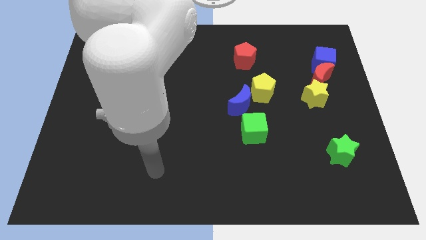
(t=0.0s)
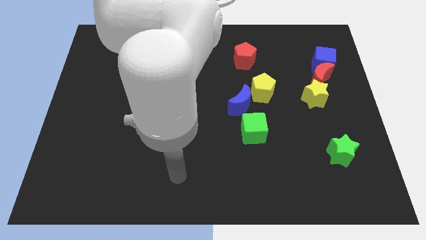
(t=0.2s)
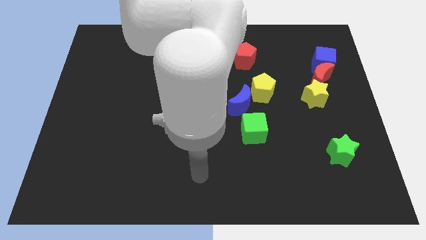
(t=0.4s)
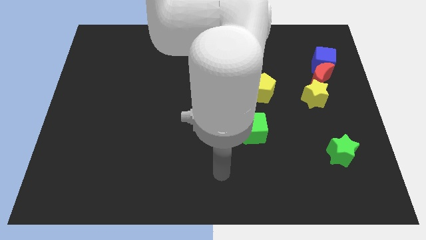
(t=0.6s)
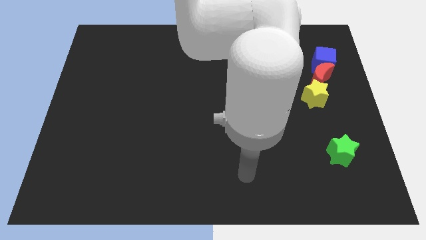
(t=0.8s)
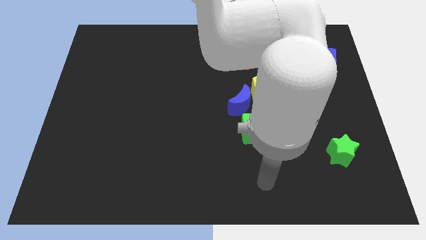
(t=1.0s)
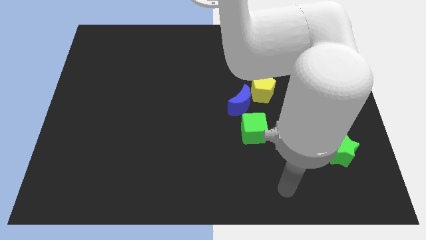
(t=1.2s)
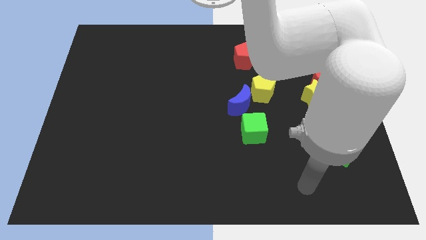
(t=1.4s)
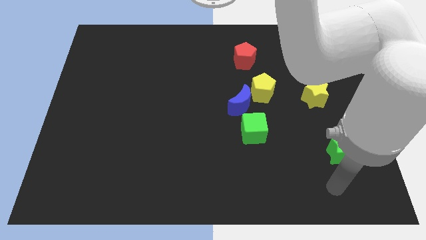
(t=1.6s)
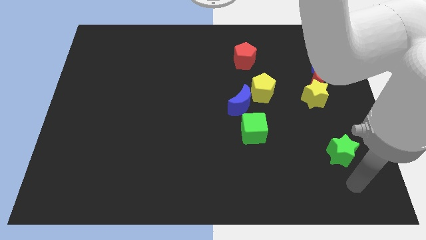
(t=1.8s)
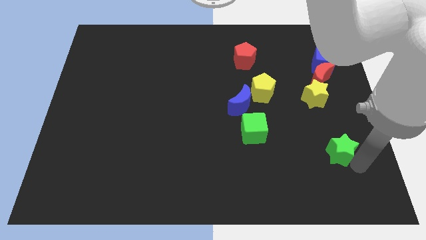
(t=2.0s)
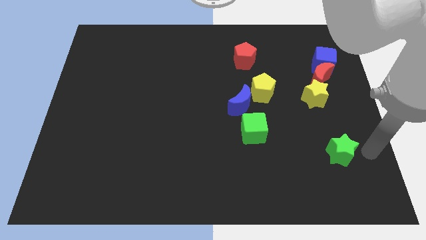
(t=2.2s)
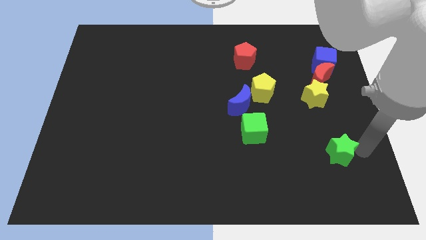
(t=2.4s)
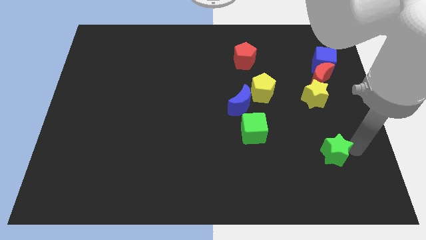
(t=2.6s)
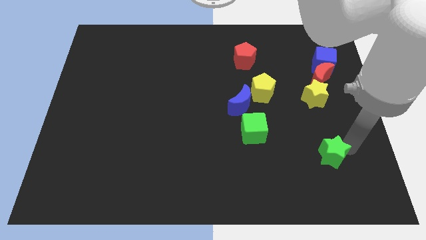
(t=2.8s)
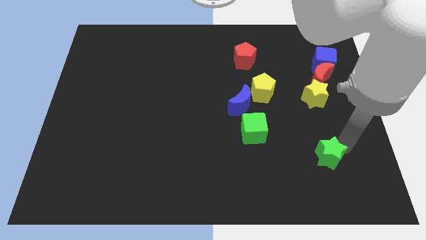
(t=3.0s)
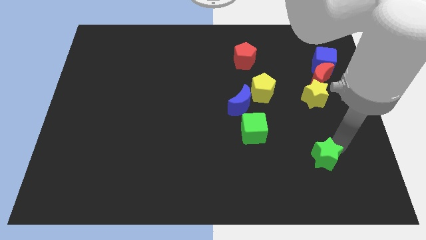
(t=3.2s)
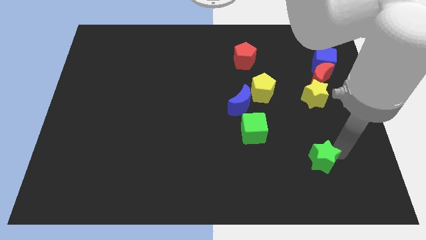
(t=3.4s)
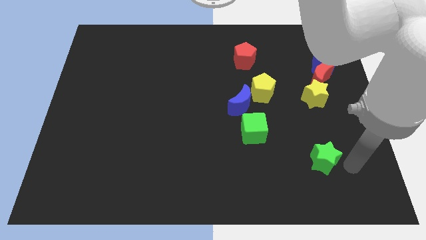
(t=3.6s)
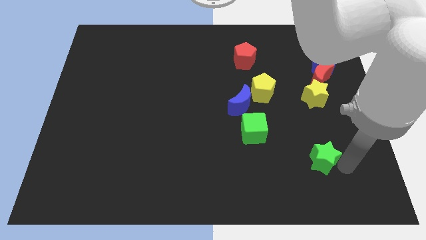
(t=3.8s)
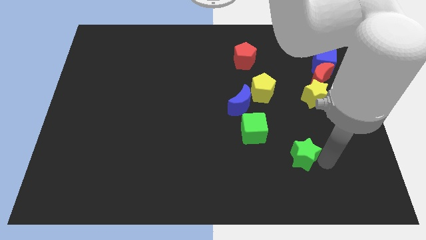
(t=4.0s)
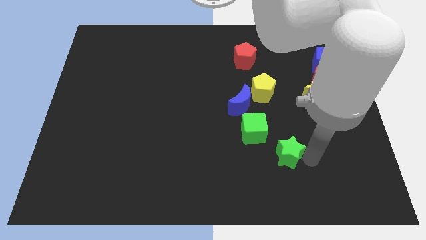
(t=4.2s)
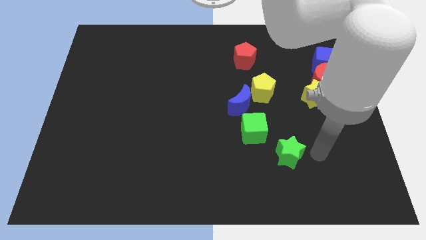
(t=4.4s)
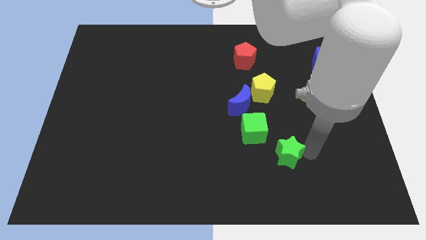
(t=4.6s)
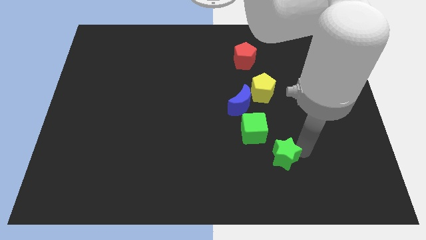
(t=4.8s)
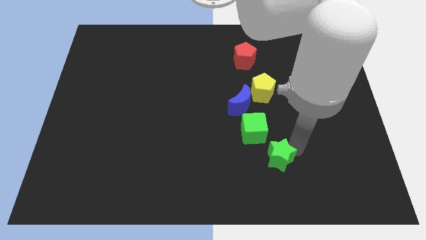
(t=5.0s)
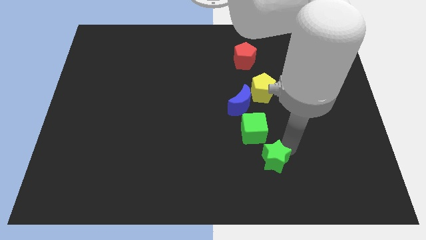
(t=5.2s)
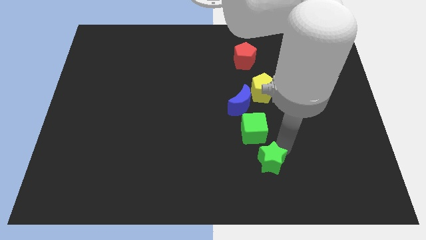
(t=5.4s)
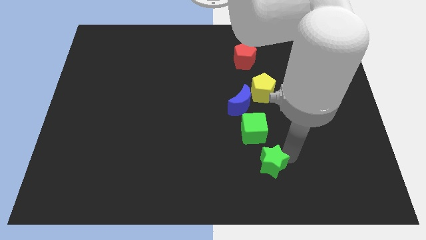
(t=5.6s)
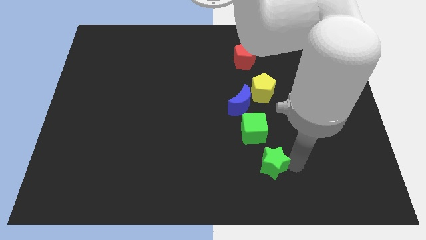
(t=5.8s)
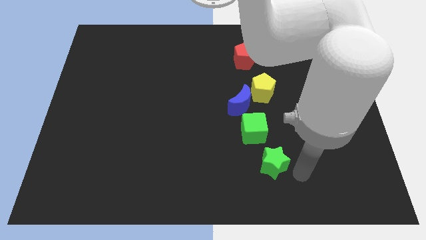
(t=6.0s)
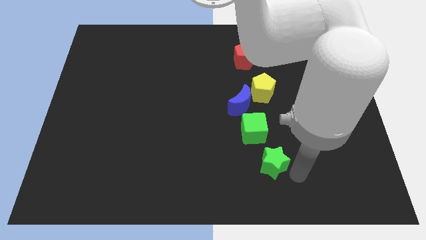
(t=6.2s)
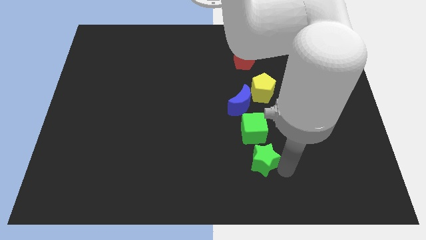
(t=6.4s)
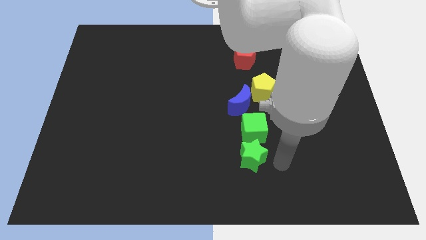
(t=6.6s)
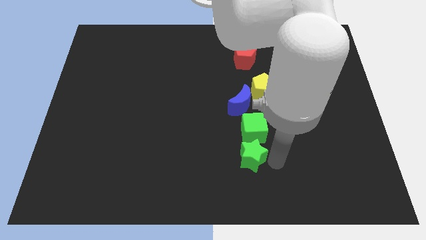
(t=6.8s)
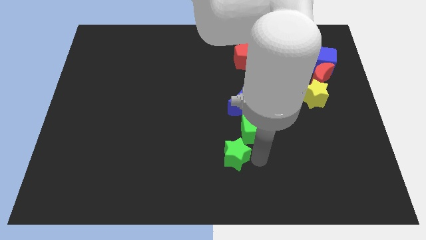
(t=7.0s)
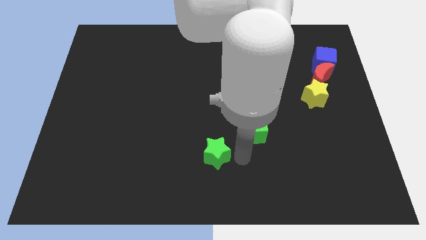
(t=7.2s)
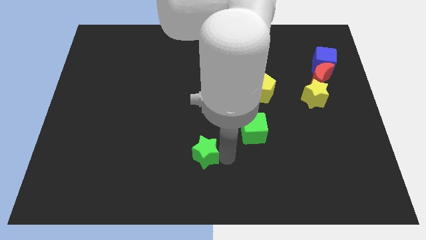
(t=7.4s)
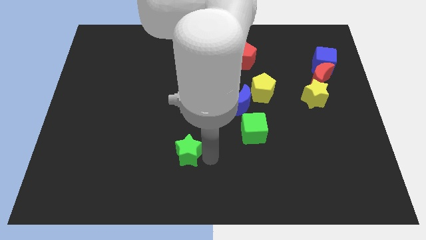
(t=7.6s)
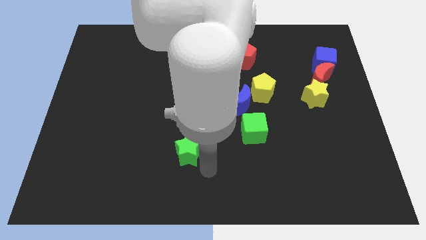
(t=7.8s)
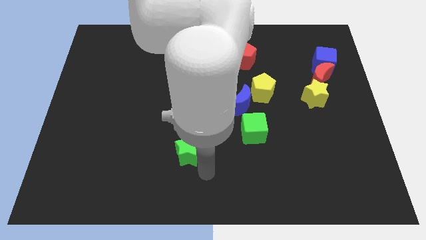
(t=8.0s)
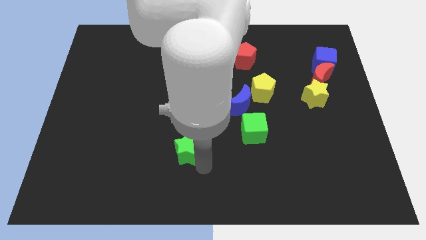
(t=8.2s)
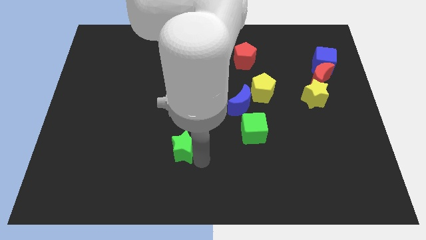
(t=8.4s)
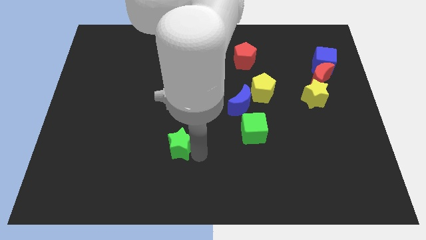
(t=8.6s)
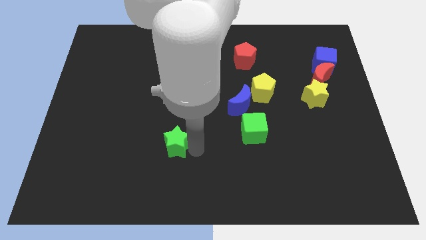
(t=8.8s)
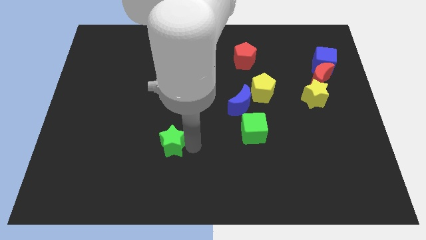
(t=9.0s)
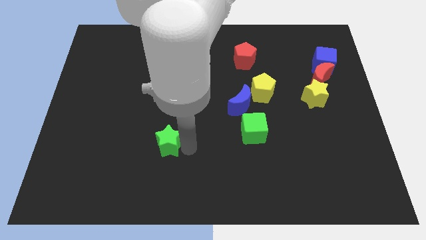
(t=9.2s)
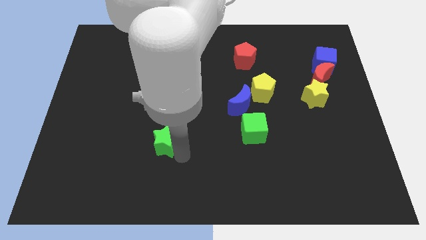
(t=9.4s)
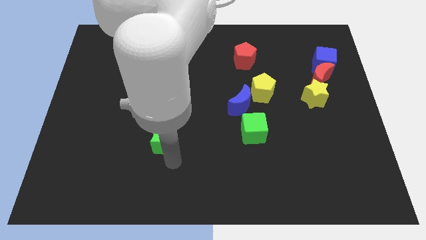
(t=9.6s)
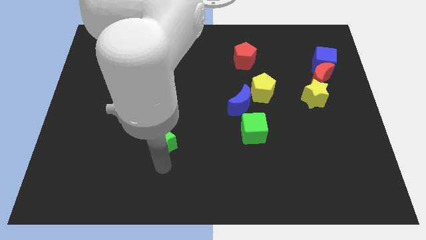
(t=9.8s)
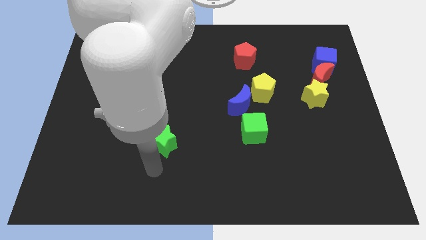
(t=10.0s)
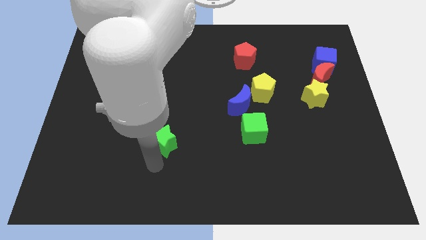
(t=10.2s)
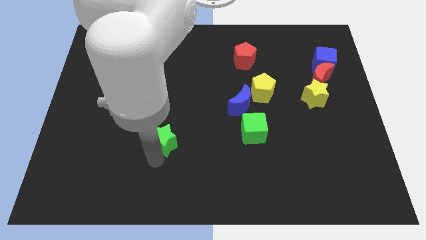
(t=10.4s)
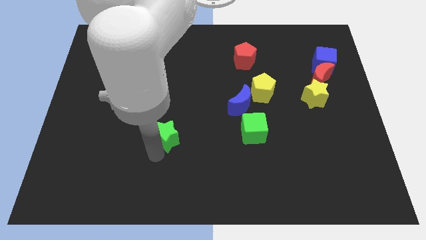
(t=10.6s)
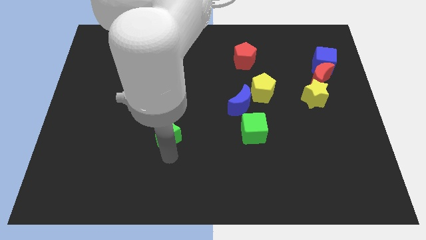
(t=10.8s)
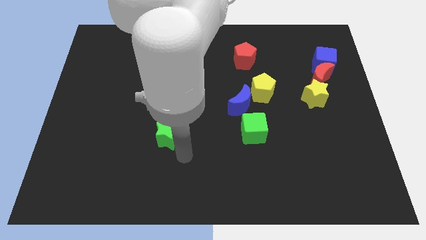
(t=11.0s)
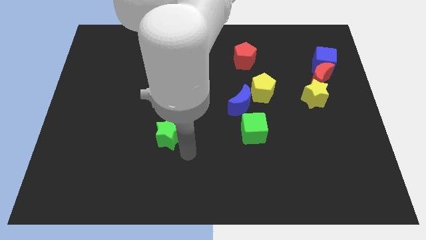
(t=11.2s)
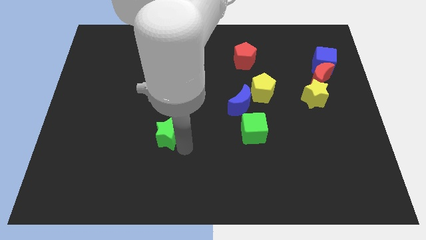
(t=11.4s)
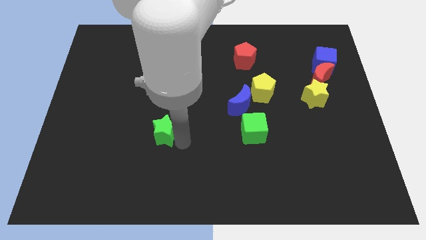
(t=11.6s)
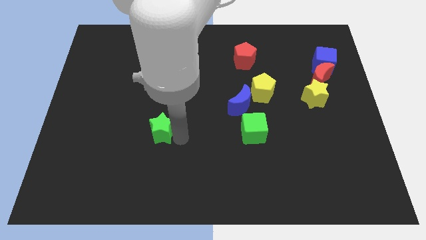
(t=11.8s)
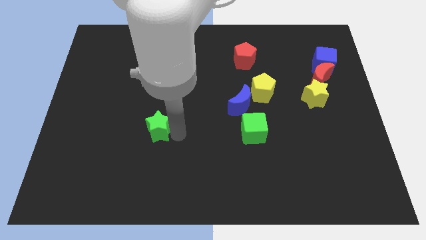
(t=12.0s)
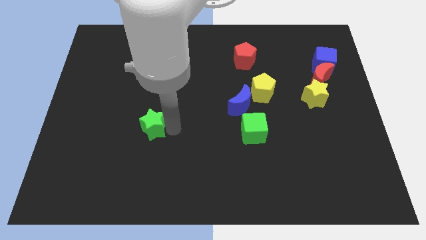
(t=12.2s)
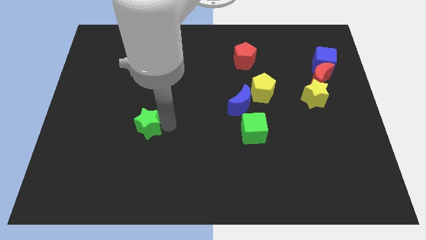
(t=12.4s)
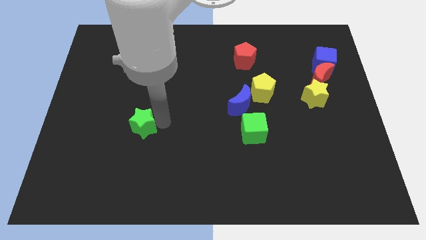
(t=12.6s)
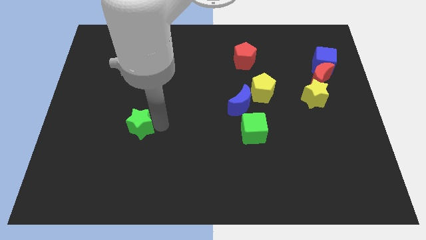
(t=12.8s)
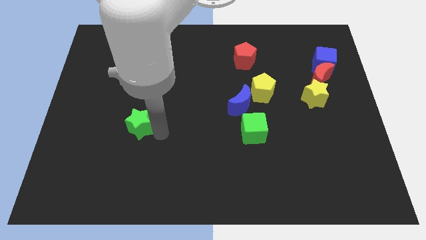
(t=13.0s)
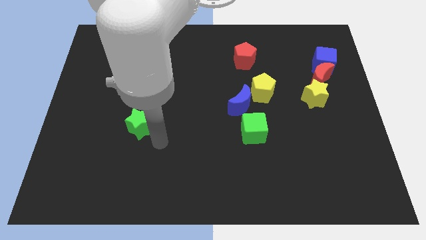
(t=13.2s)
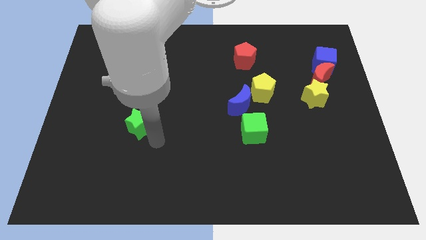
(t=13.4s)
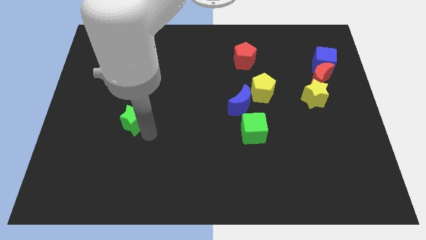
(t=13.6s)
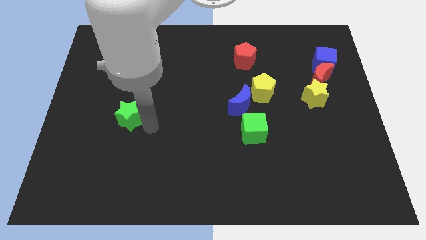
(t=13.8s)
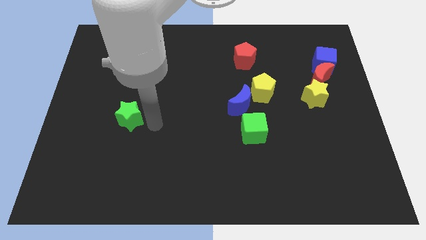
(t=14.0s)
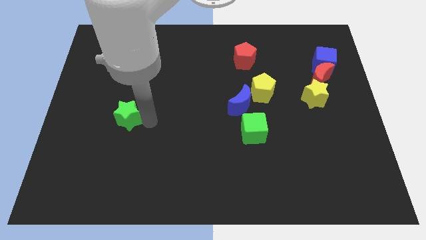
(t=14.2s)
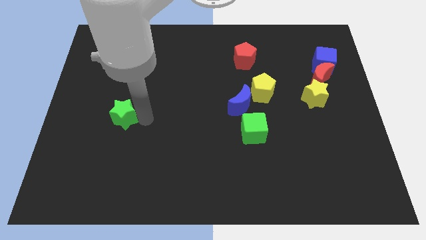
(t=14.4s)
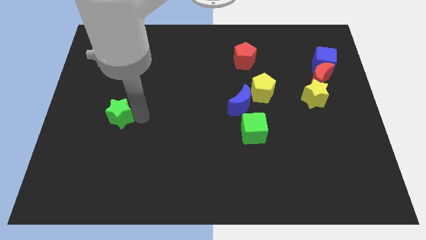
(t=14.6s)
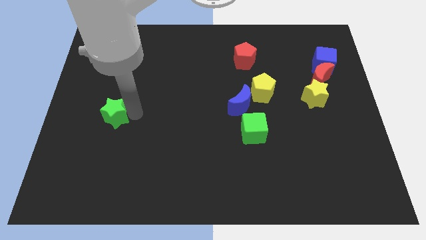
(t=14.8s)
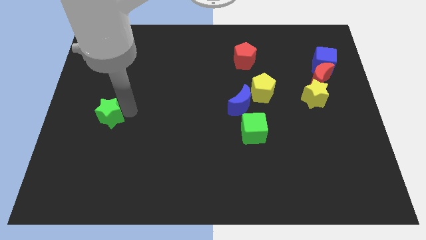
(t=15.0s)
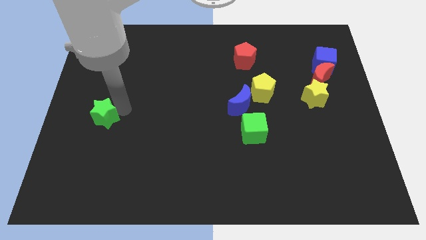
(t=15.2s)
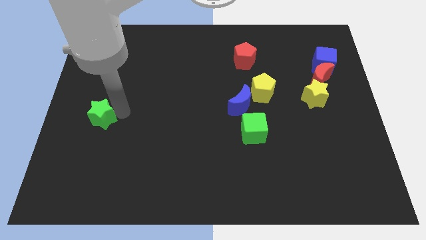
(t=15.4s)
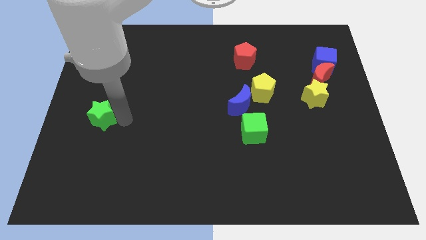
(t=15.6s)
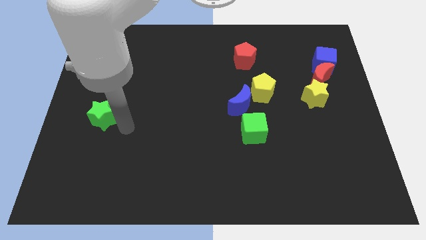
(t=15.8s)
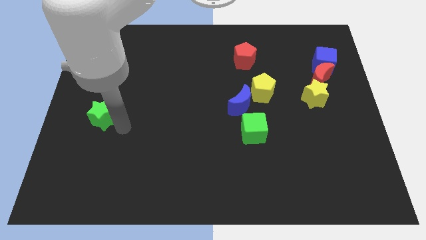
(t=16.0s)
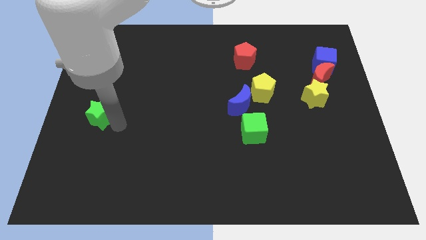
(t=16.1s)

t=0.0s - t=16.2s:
push the green star to the left side
